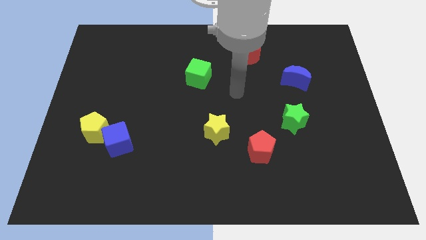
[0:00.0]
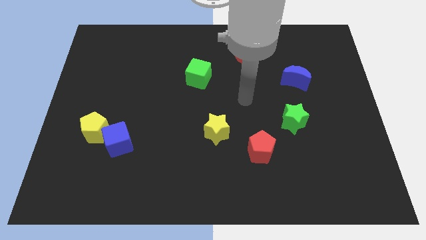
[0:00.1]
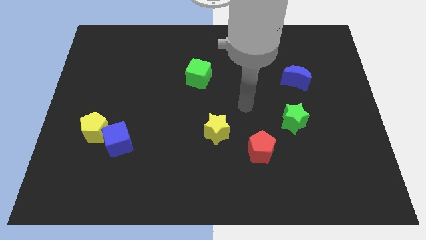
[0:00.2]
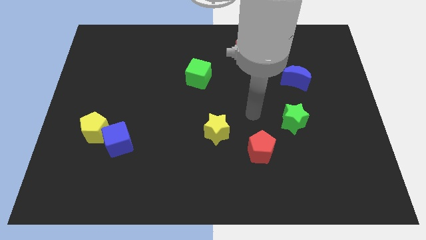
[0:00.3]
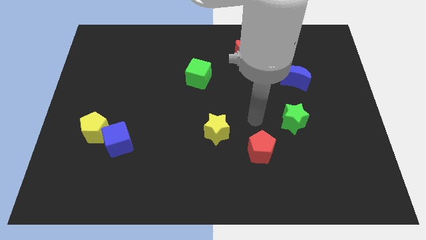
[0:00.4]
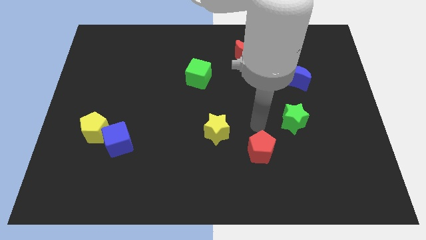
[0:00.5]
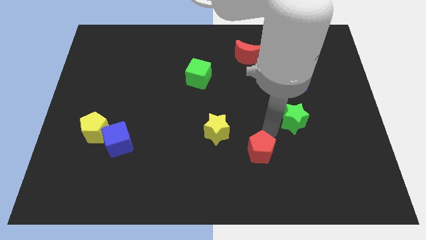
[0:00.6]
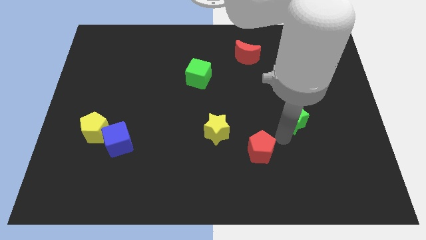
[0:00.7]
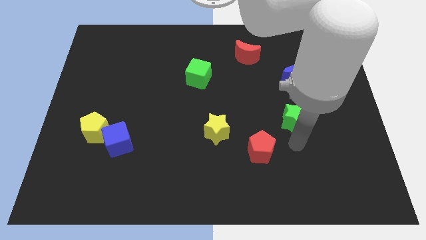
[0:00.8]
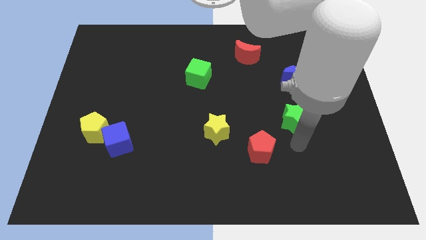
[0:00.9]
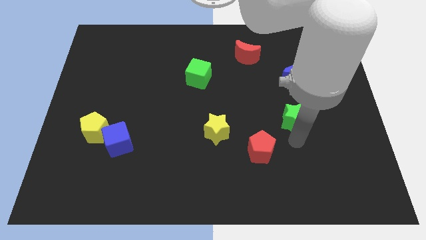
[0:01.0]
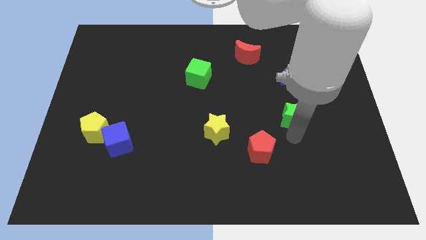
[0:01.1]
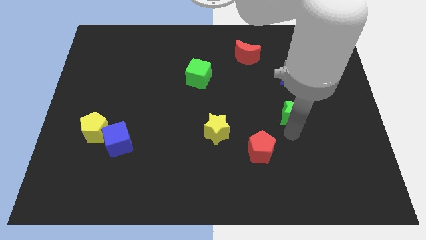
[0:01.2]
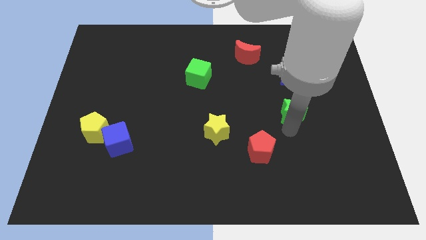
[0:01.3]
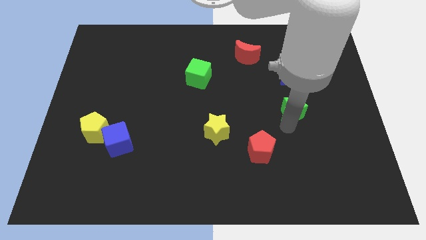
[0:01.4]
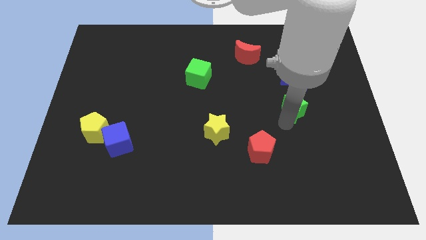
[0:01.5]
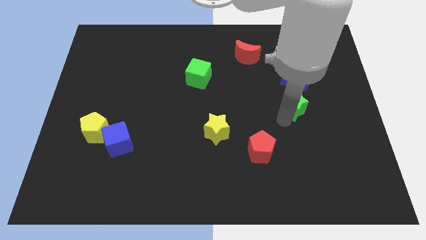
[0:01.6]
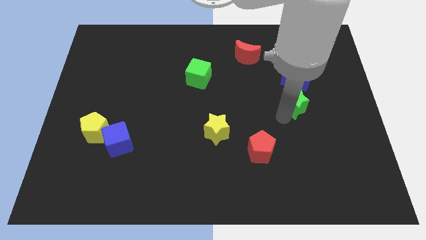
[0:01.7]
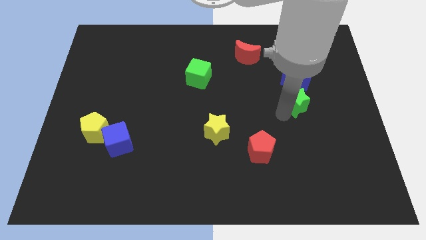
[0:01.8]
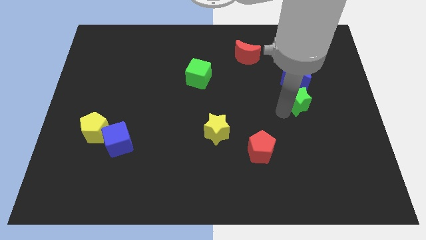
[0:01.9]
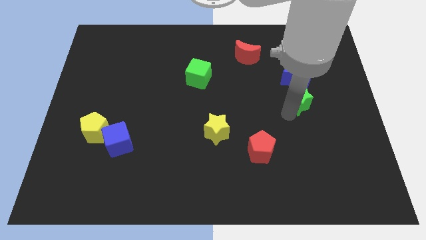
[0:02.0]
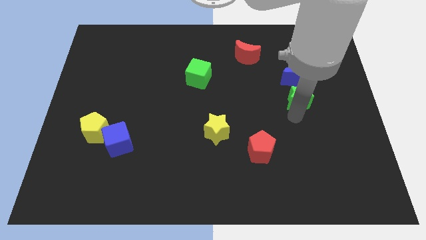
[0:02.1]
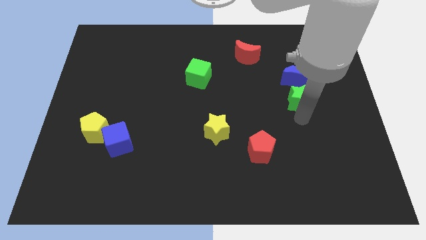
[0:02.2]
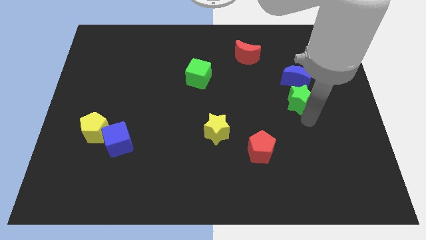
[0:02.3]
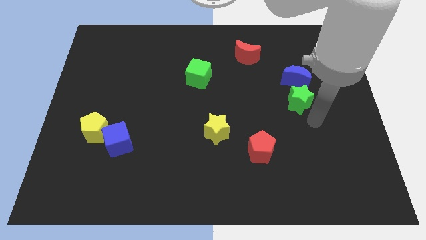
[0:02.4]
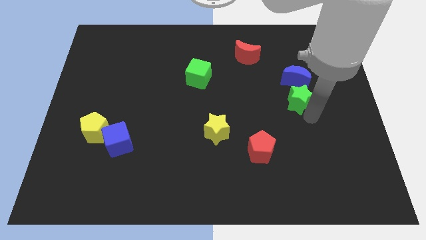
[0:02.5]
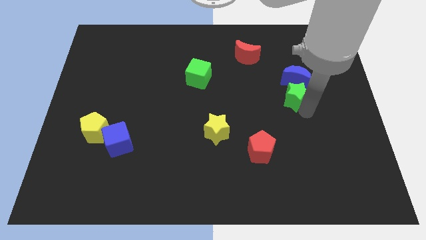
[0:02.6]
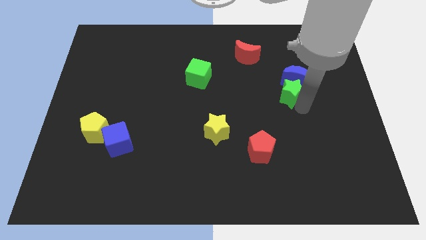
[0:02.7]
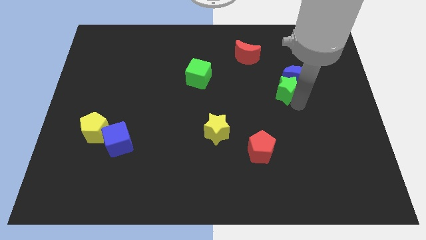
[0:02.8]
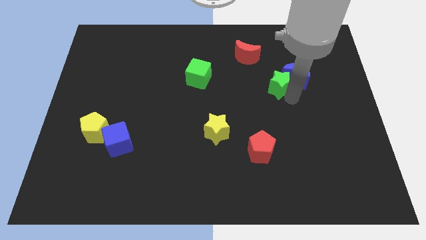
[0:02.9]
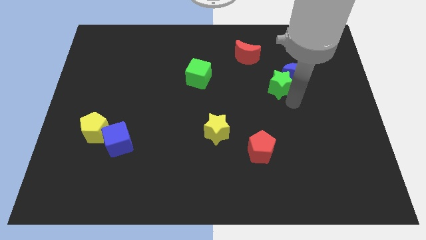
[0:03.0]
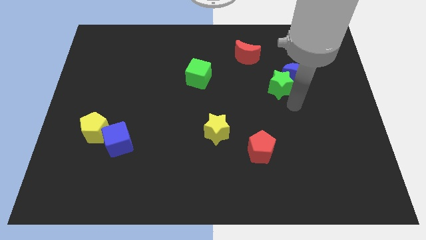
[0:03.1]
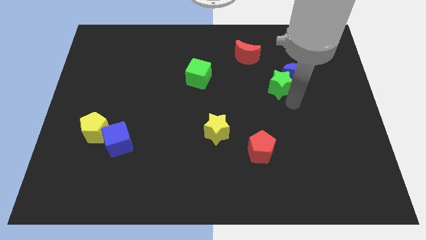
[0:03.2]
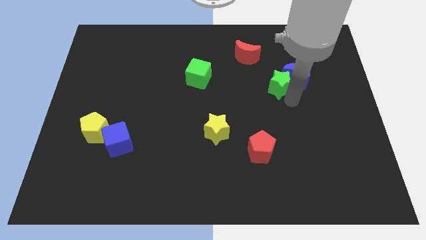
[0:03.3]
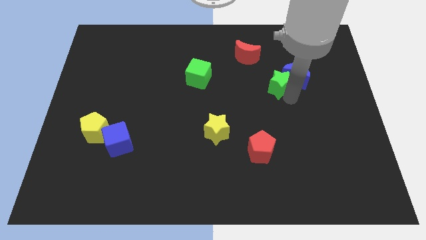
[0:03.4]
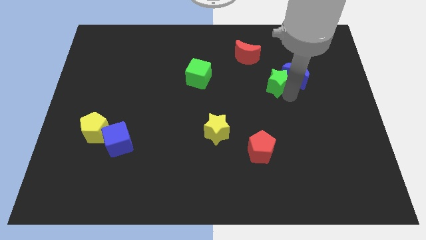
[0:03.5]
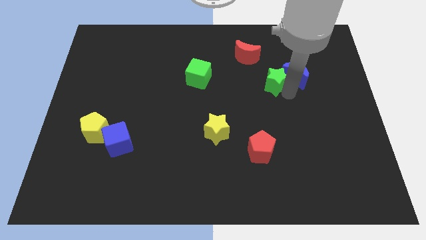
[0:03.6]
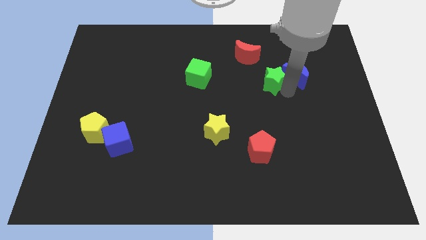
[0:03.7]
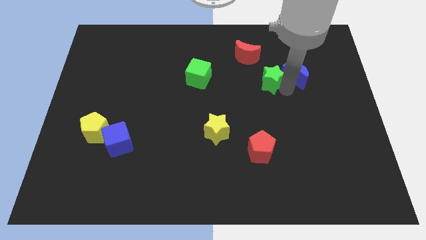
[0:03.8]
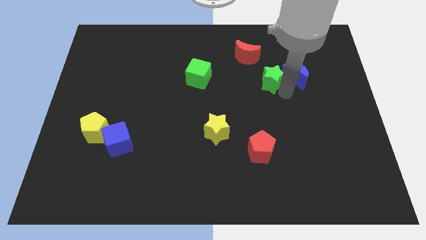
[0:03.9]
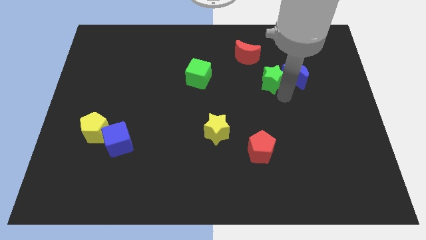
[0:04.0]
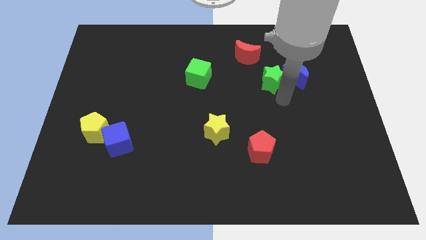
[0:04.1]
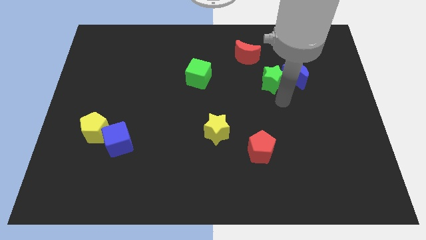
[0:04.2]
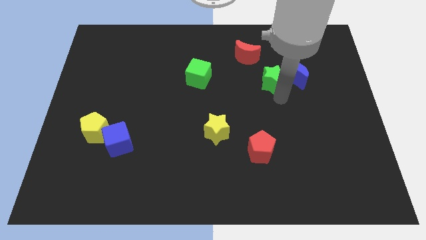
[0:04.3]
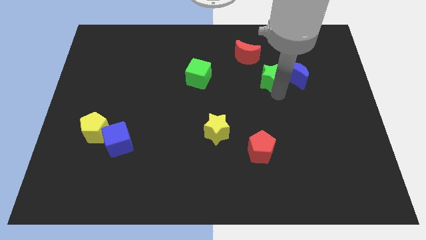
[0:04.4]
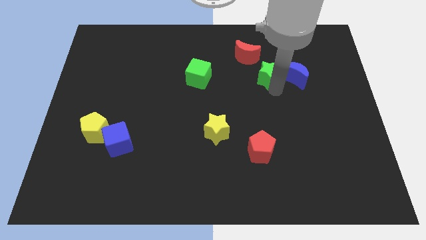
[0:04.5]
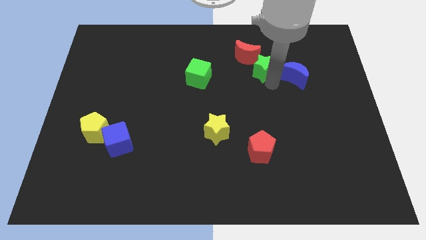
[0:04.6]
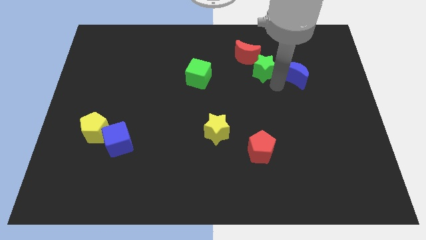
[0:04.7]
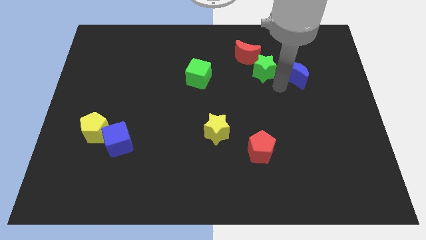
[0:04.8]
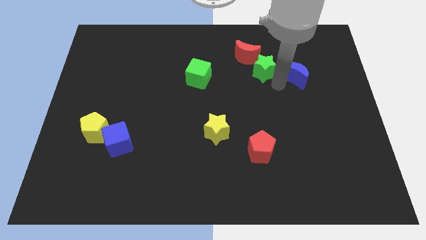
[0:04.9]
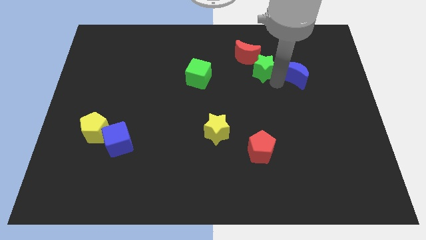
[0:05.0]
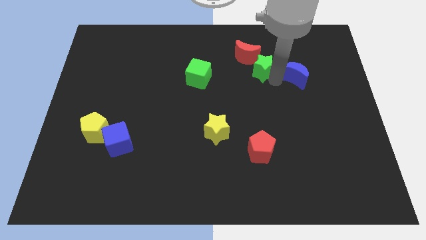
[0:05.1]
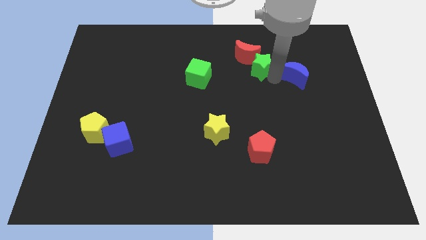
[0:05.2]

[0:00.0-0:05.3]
put the green star to the red moon

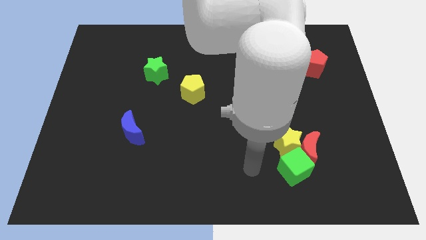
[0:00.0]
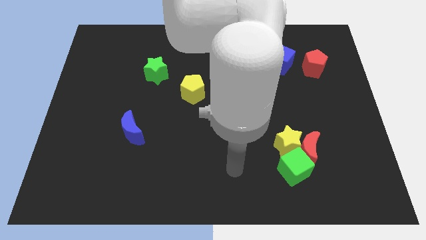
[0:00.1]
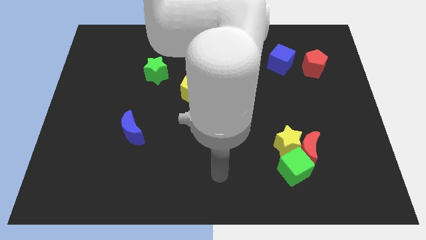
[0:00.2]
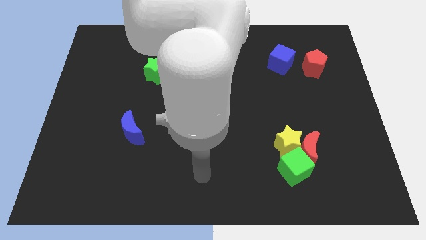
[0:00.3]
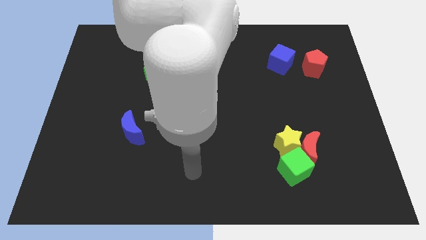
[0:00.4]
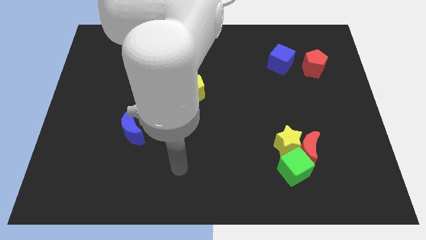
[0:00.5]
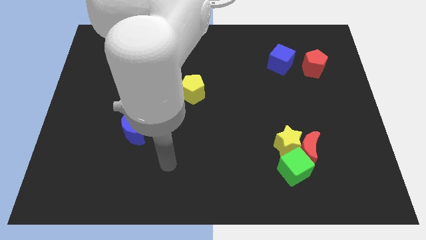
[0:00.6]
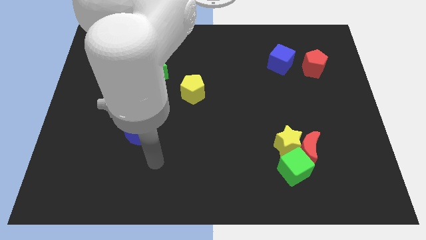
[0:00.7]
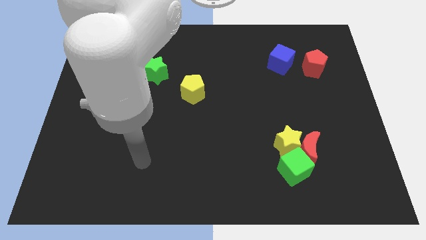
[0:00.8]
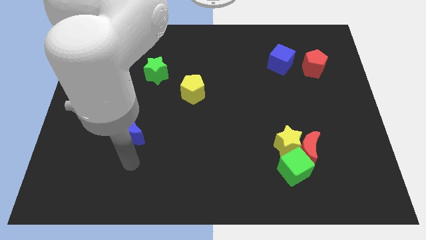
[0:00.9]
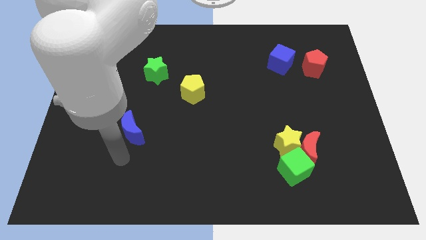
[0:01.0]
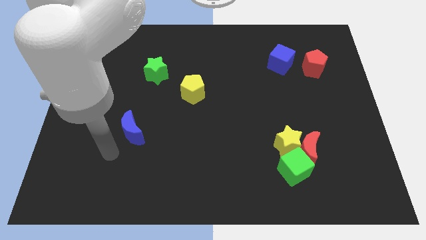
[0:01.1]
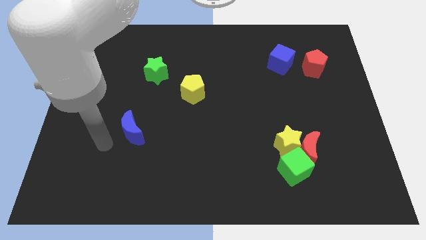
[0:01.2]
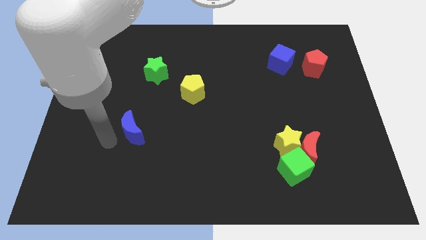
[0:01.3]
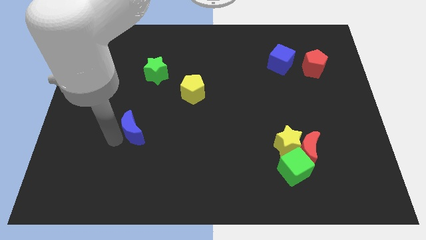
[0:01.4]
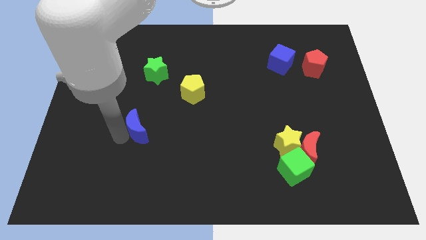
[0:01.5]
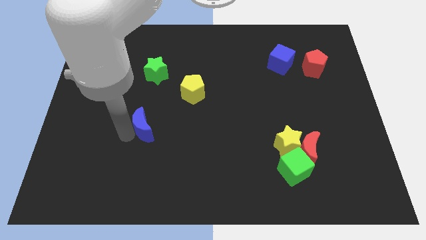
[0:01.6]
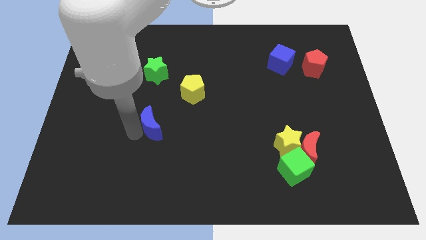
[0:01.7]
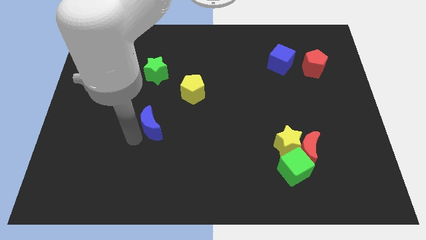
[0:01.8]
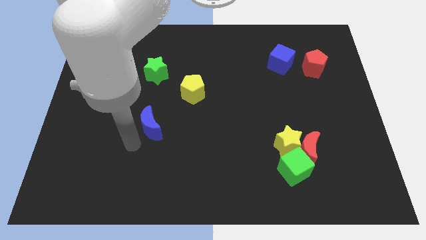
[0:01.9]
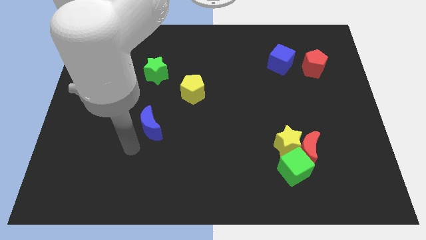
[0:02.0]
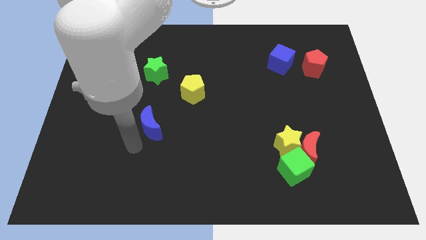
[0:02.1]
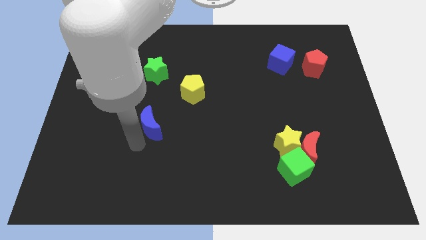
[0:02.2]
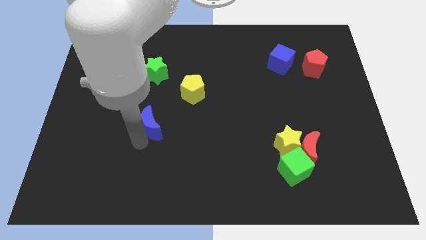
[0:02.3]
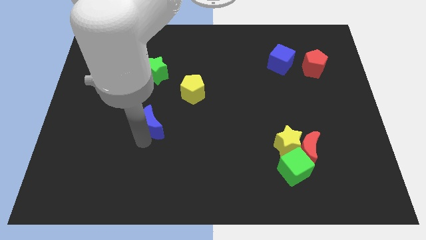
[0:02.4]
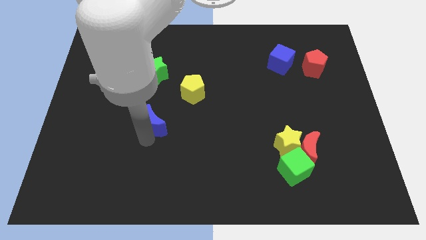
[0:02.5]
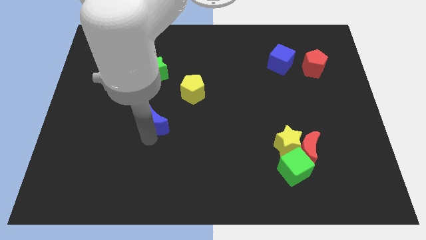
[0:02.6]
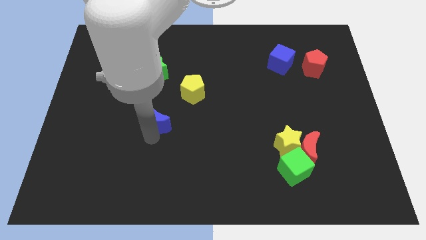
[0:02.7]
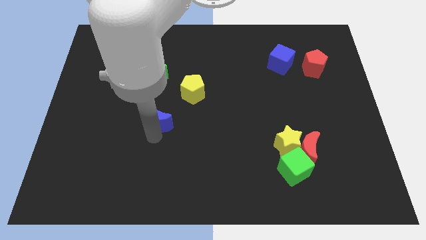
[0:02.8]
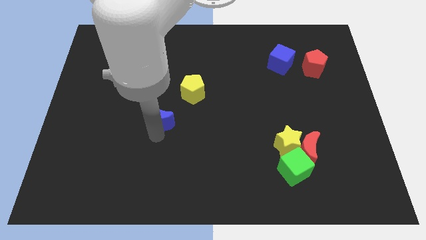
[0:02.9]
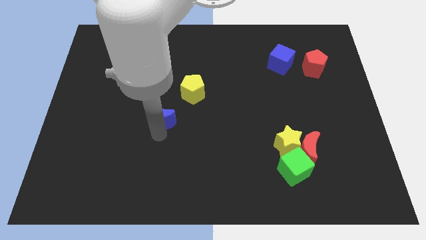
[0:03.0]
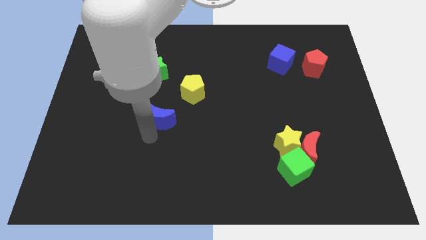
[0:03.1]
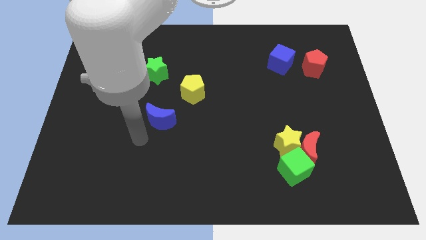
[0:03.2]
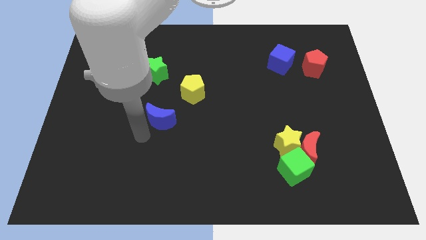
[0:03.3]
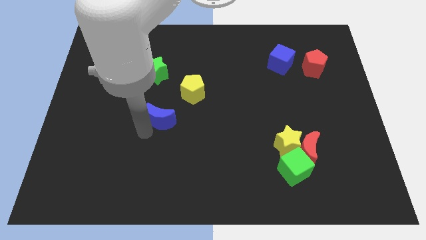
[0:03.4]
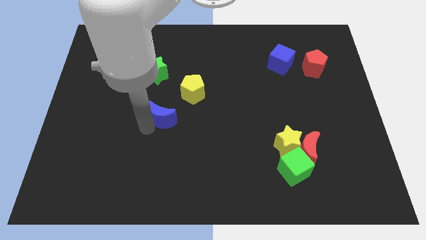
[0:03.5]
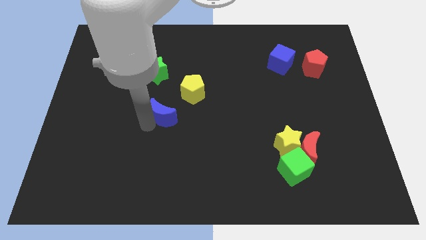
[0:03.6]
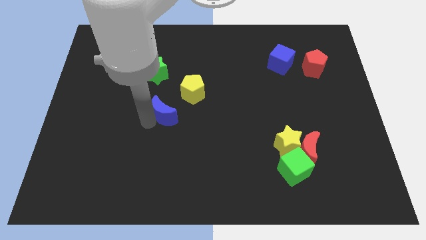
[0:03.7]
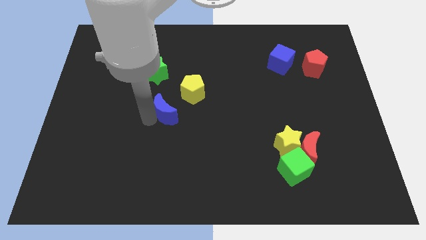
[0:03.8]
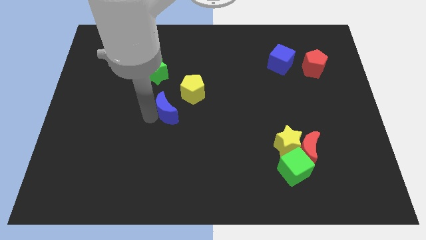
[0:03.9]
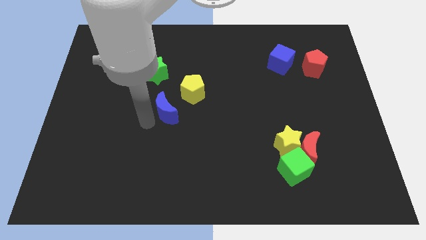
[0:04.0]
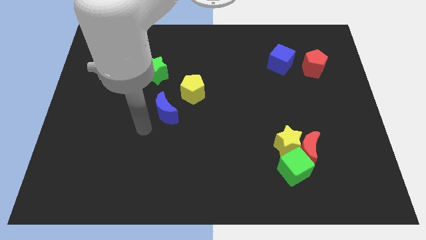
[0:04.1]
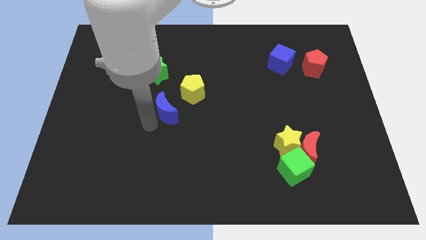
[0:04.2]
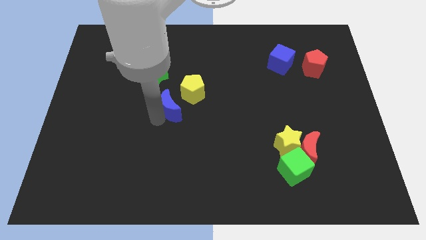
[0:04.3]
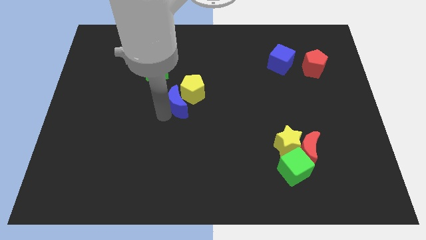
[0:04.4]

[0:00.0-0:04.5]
move the blue moon to the yellow pentagon
